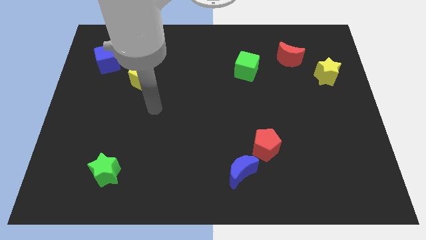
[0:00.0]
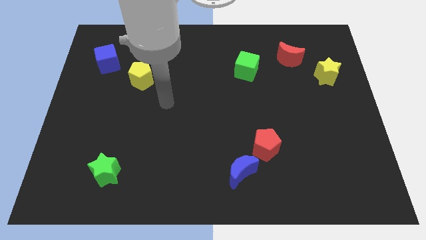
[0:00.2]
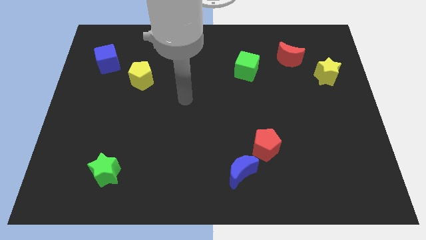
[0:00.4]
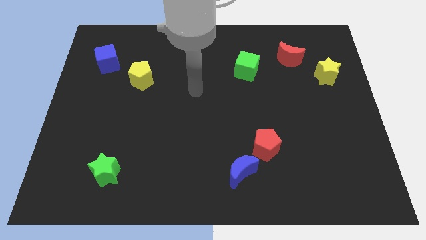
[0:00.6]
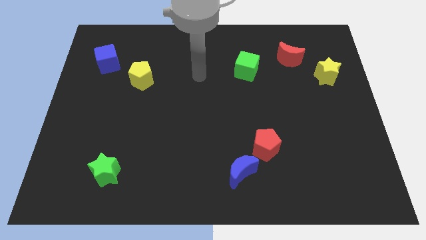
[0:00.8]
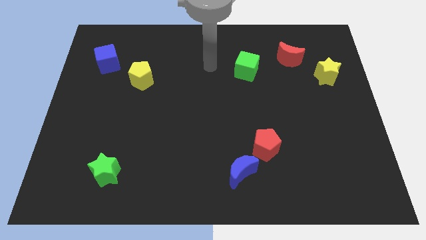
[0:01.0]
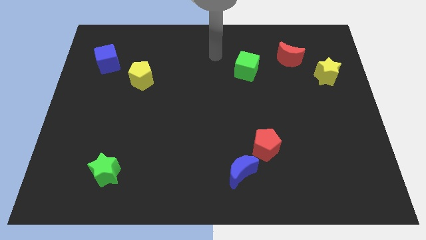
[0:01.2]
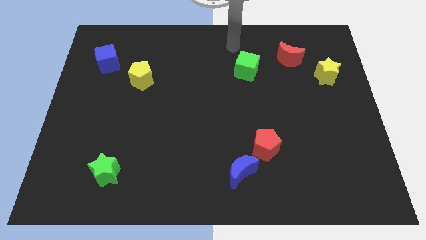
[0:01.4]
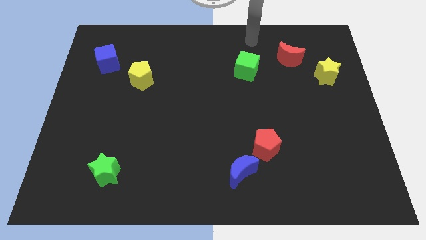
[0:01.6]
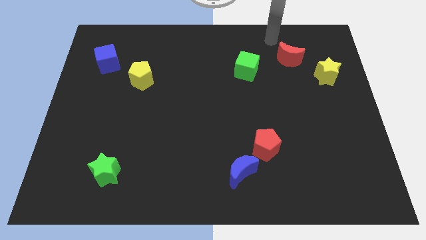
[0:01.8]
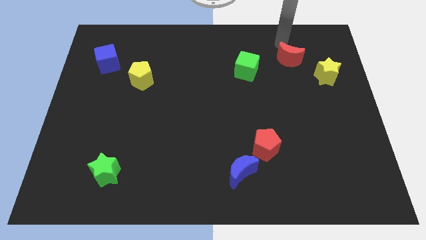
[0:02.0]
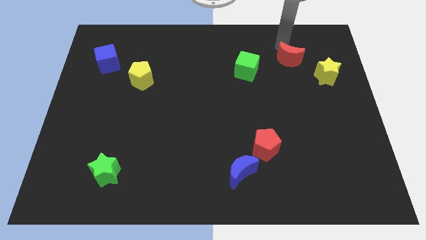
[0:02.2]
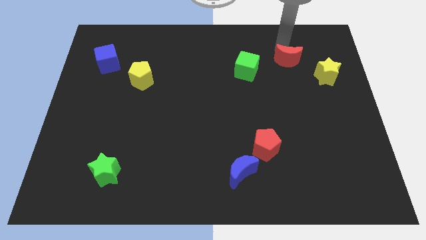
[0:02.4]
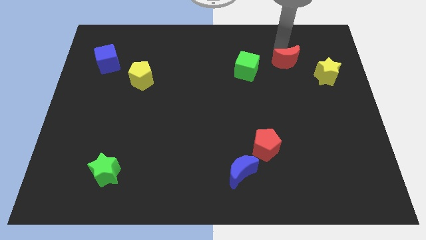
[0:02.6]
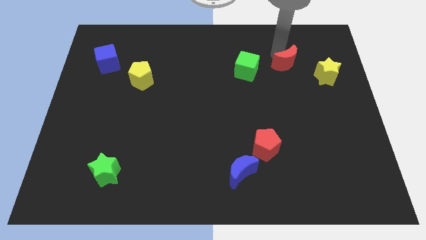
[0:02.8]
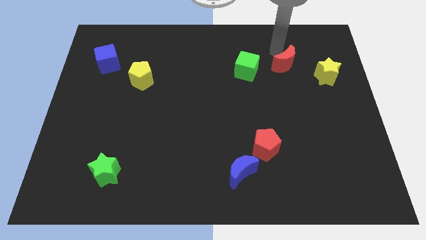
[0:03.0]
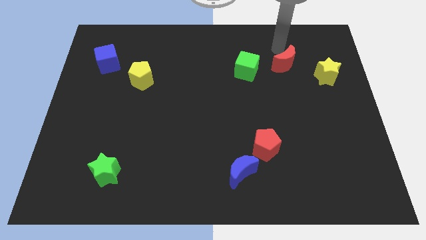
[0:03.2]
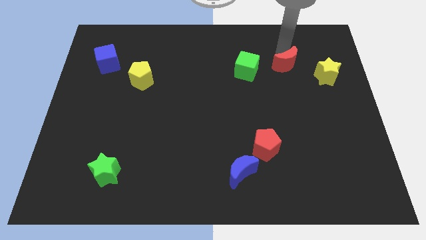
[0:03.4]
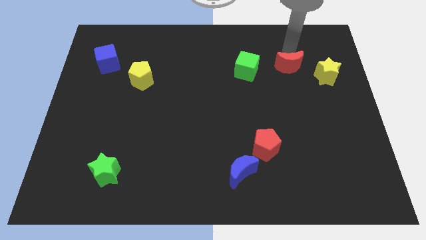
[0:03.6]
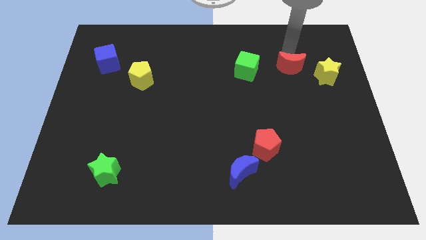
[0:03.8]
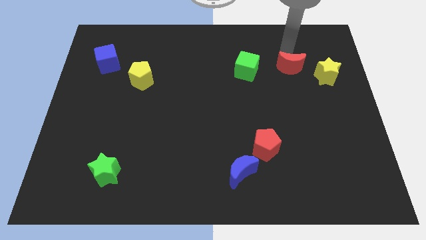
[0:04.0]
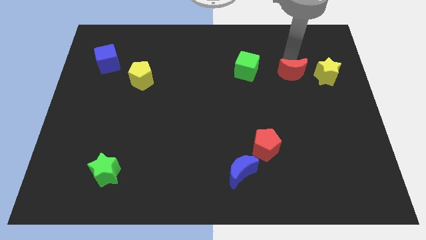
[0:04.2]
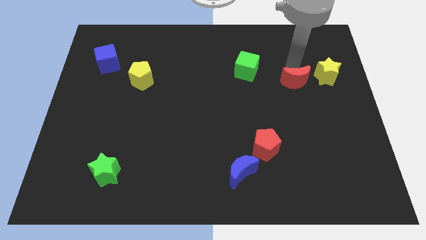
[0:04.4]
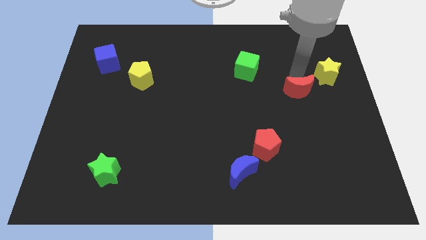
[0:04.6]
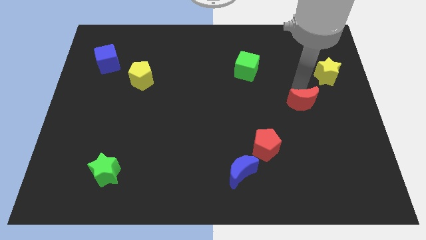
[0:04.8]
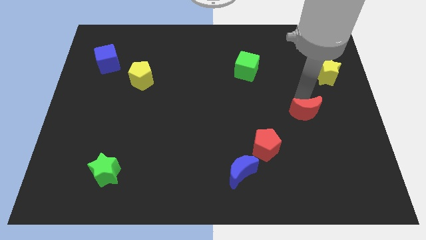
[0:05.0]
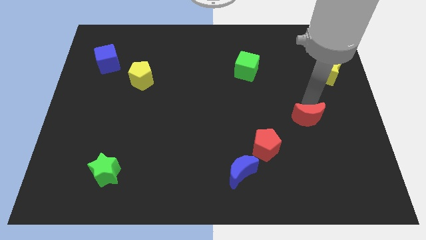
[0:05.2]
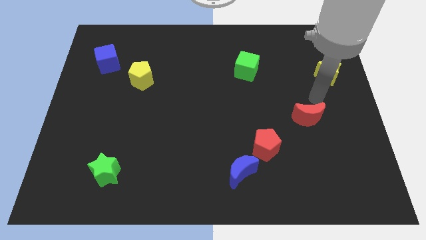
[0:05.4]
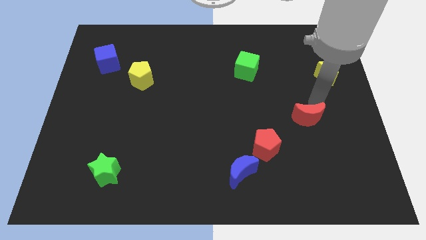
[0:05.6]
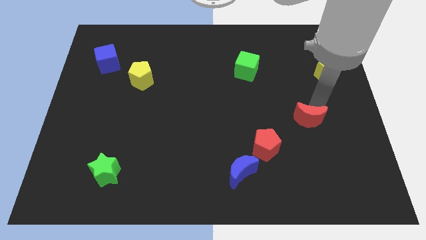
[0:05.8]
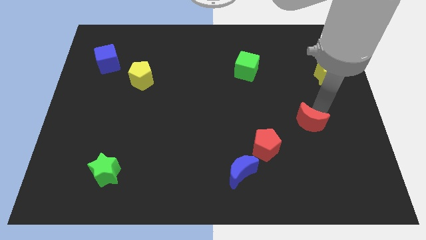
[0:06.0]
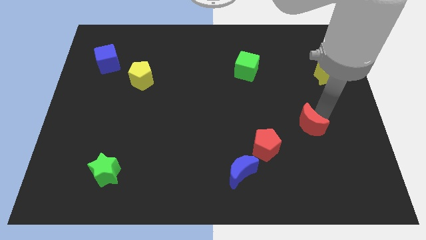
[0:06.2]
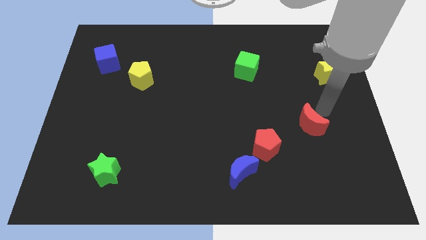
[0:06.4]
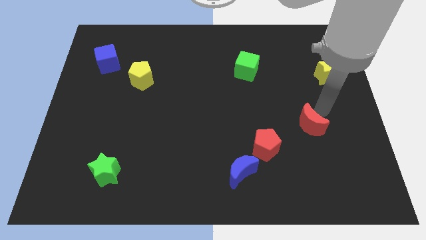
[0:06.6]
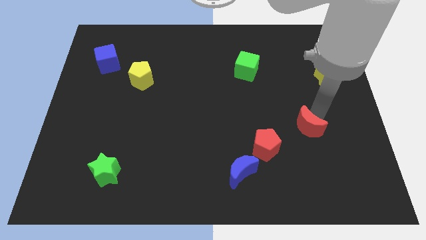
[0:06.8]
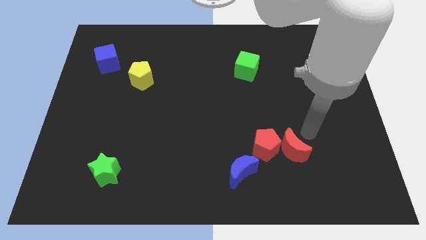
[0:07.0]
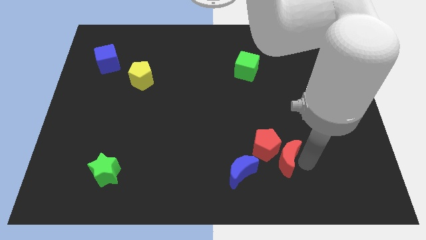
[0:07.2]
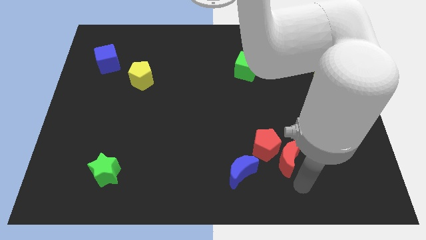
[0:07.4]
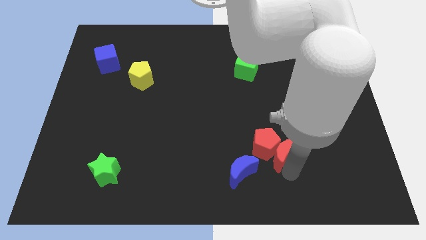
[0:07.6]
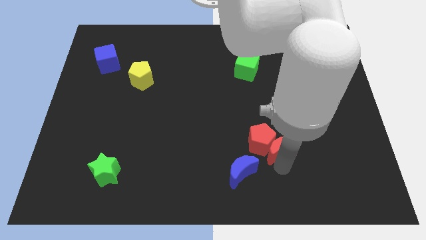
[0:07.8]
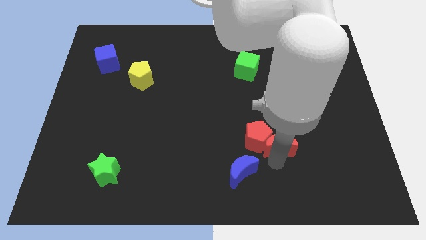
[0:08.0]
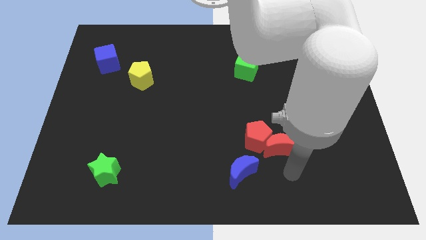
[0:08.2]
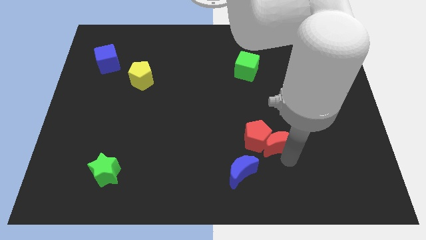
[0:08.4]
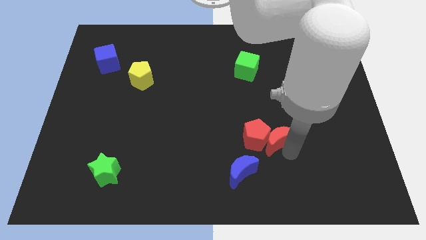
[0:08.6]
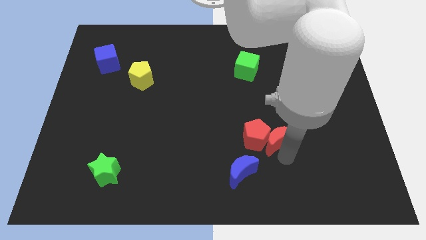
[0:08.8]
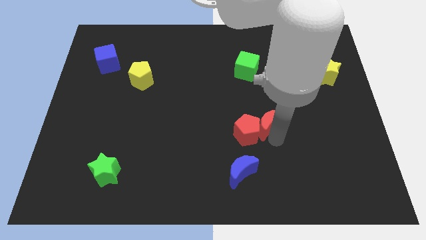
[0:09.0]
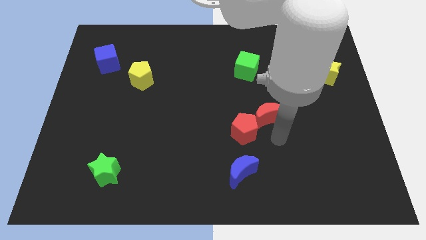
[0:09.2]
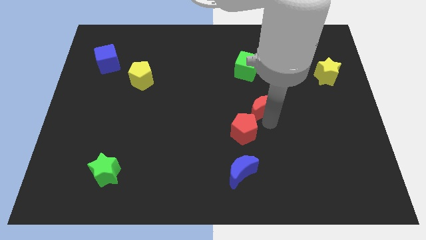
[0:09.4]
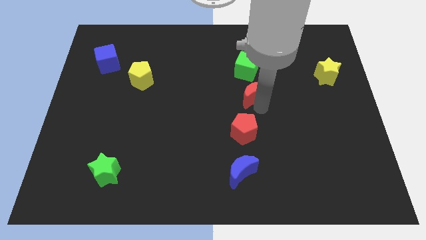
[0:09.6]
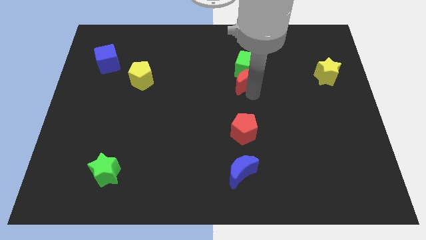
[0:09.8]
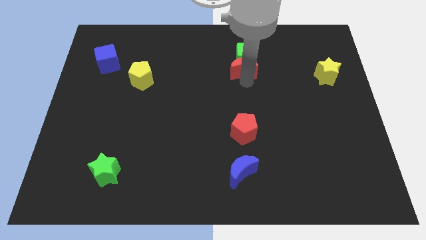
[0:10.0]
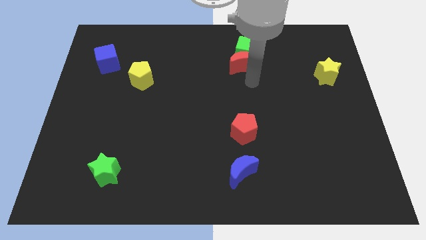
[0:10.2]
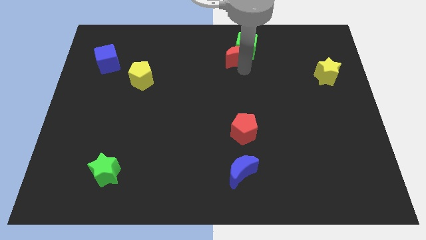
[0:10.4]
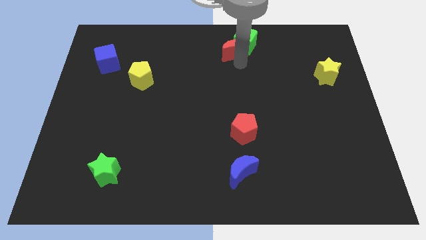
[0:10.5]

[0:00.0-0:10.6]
push the red moon to the top

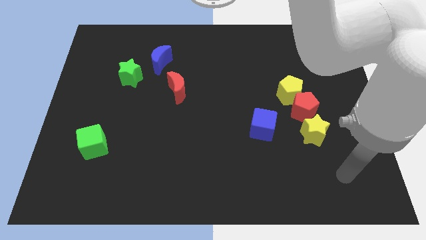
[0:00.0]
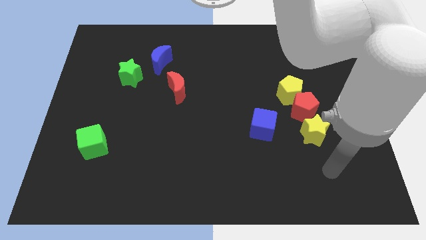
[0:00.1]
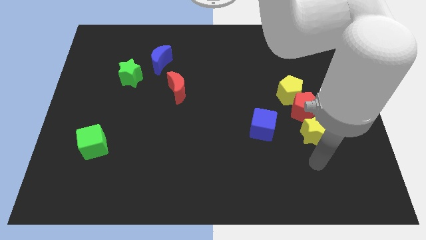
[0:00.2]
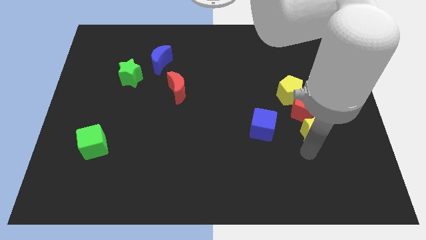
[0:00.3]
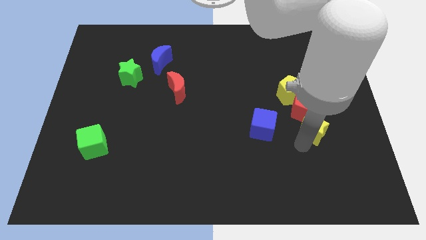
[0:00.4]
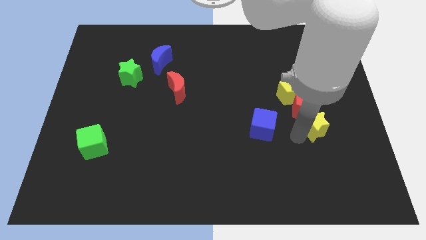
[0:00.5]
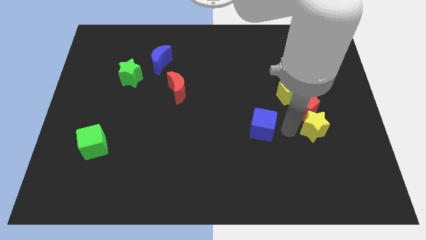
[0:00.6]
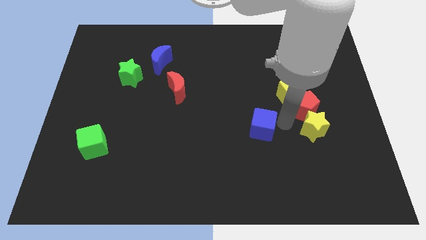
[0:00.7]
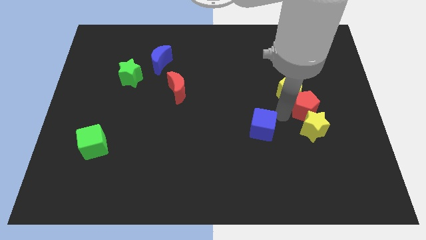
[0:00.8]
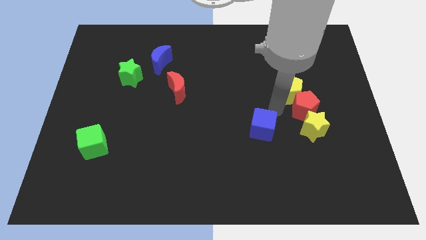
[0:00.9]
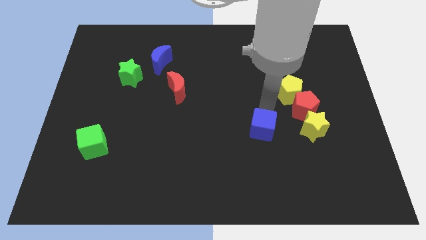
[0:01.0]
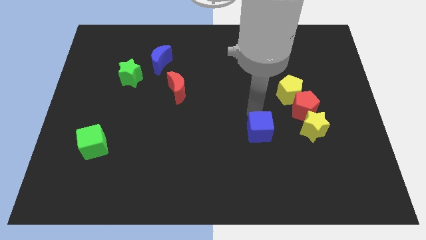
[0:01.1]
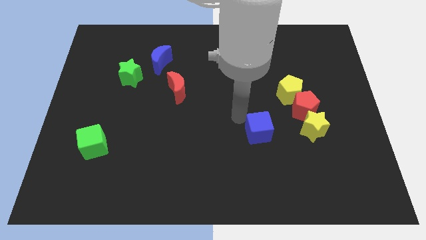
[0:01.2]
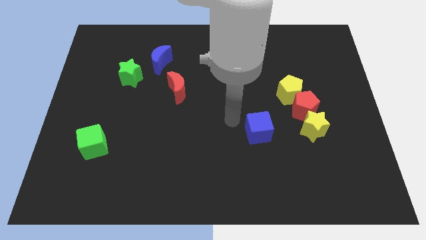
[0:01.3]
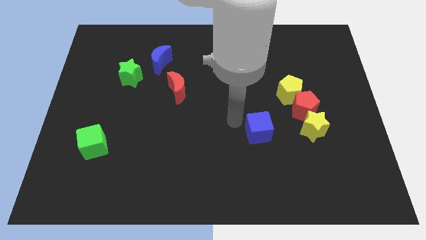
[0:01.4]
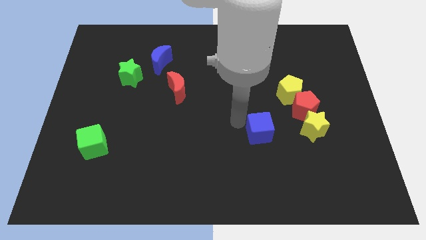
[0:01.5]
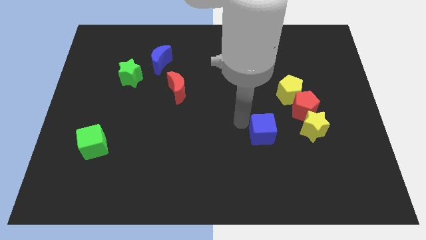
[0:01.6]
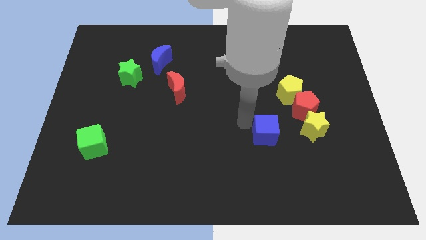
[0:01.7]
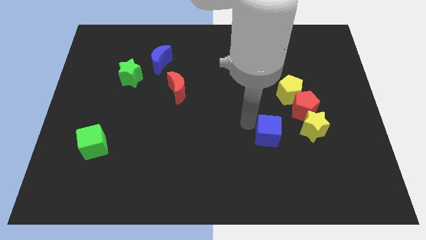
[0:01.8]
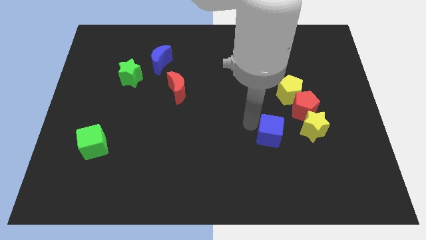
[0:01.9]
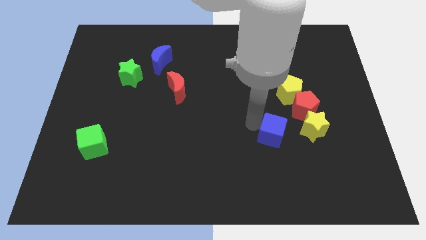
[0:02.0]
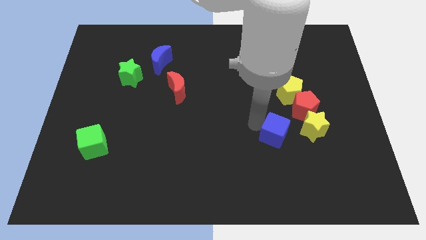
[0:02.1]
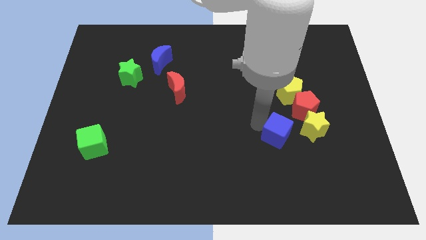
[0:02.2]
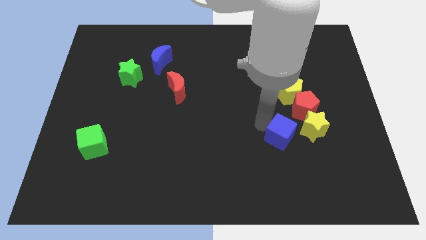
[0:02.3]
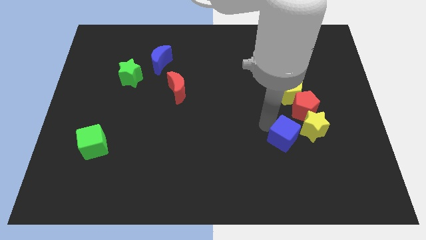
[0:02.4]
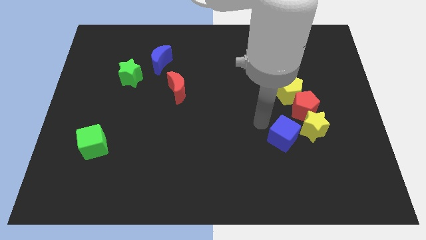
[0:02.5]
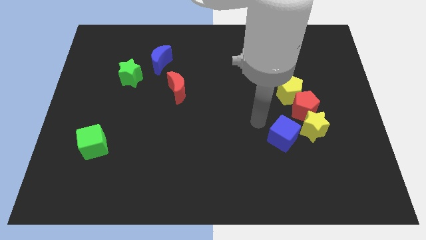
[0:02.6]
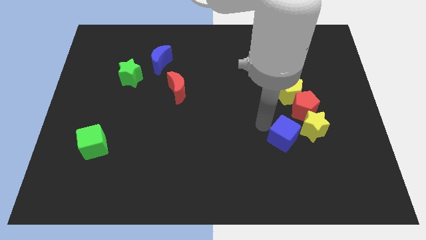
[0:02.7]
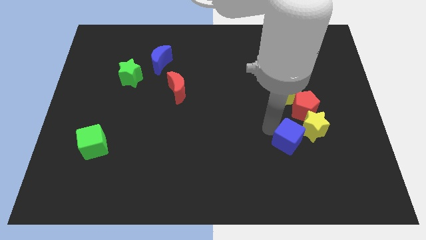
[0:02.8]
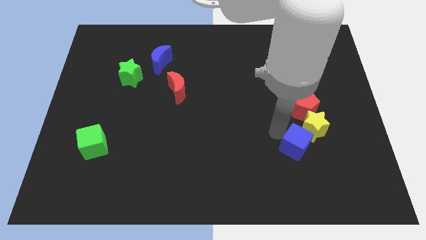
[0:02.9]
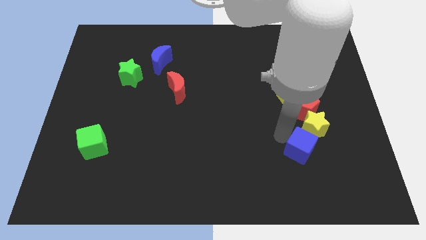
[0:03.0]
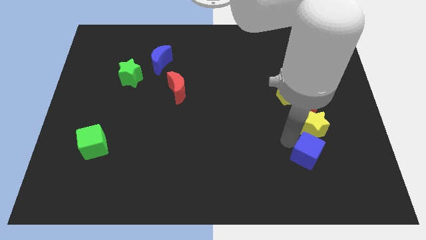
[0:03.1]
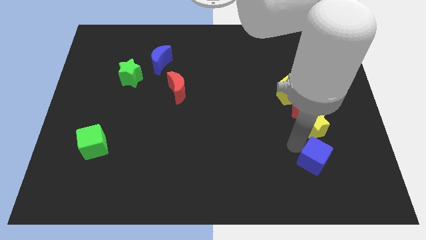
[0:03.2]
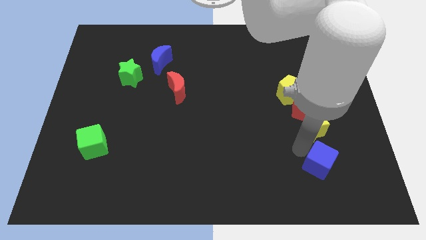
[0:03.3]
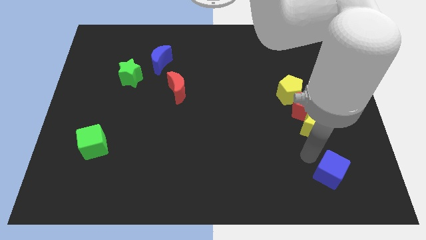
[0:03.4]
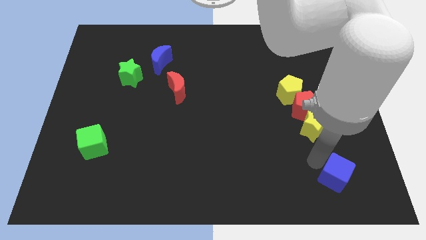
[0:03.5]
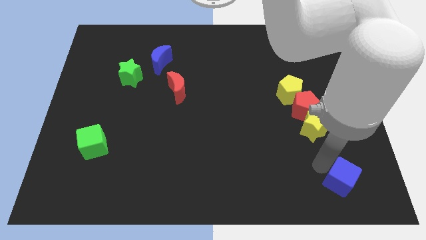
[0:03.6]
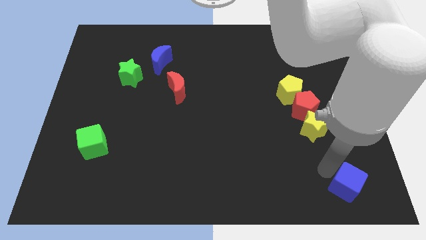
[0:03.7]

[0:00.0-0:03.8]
put the blue cube to the bottom right
